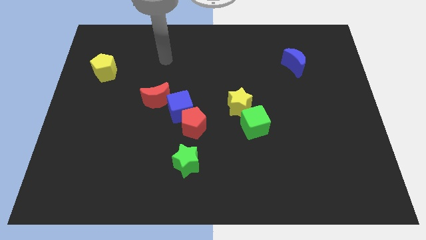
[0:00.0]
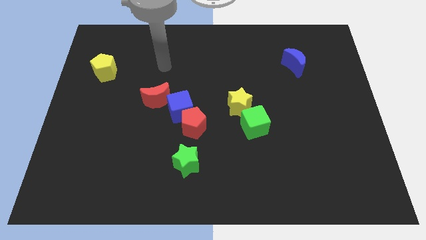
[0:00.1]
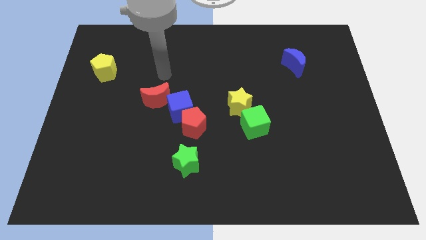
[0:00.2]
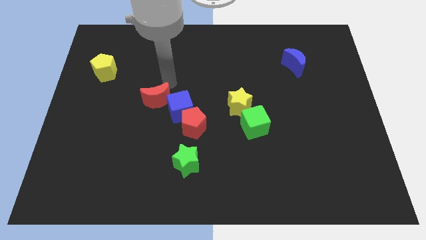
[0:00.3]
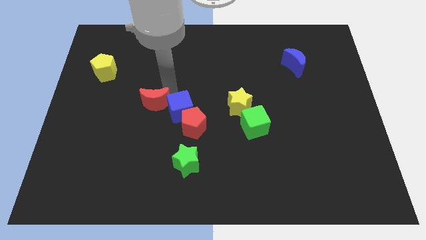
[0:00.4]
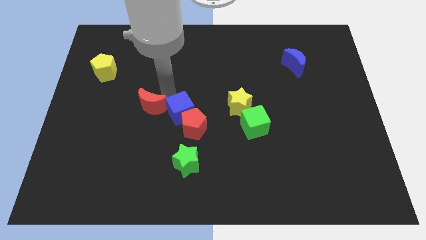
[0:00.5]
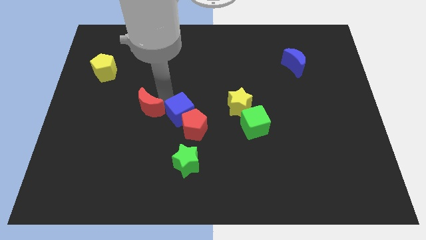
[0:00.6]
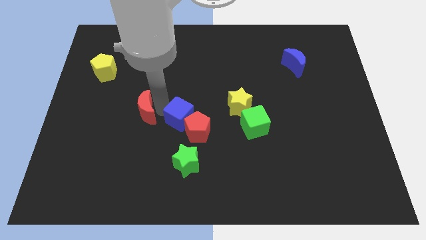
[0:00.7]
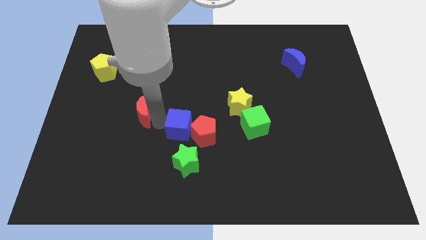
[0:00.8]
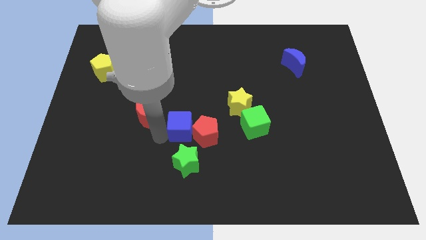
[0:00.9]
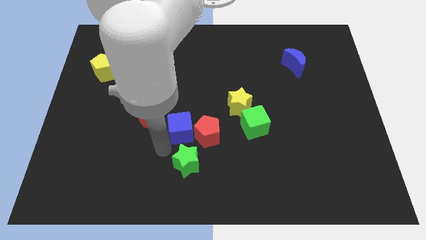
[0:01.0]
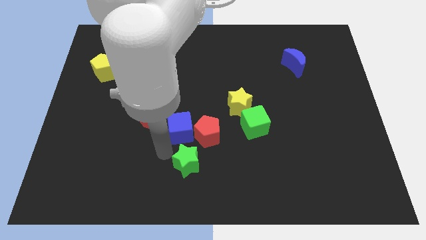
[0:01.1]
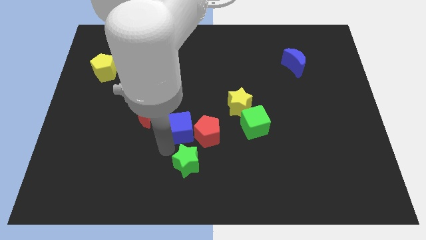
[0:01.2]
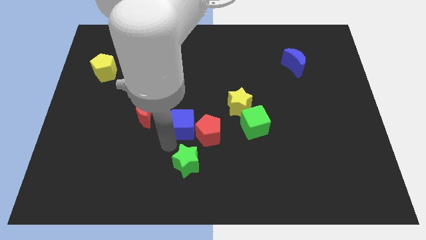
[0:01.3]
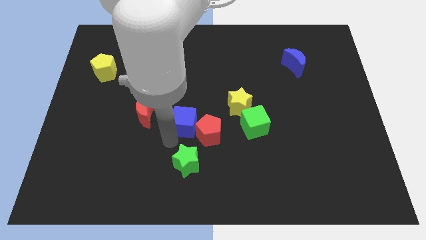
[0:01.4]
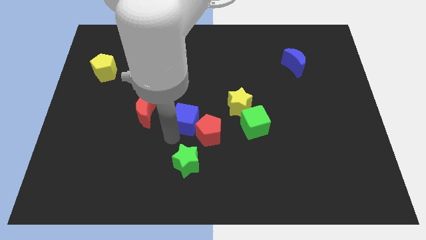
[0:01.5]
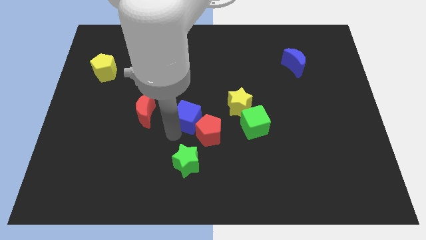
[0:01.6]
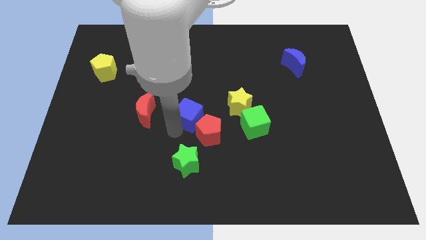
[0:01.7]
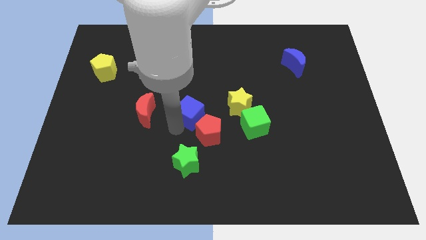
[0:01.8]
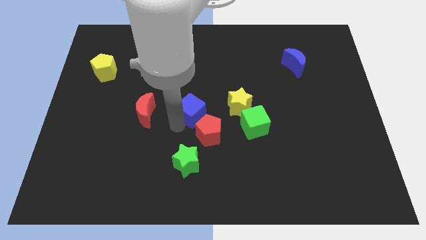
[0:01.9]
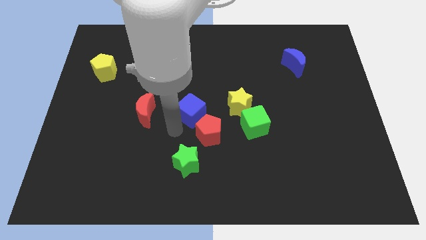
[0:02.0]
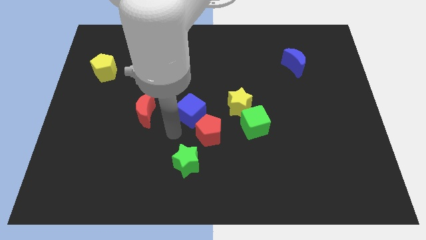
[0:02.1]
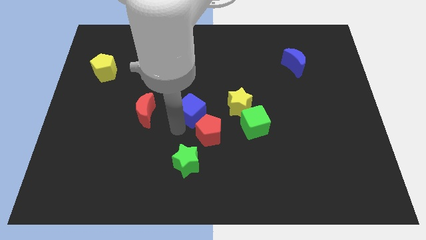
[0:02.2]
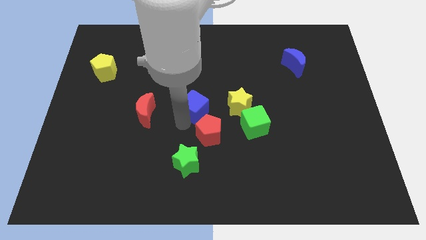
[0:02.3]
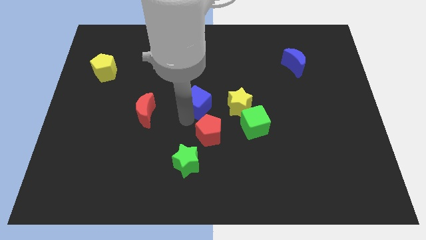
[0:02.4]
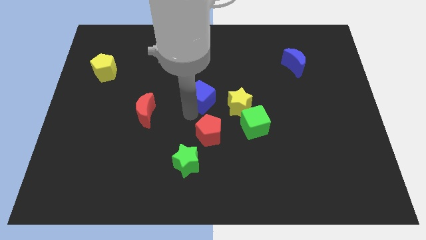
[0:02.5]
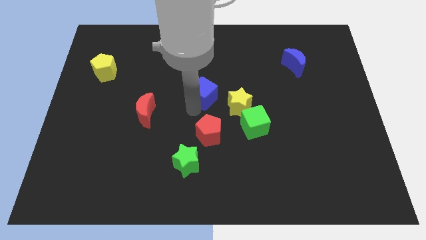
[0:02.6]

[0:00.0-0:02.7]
separate the blue cube from the red pentagon and red moon

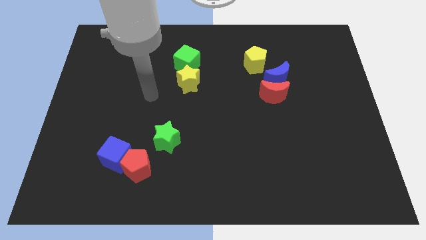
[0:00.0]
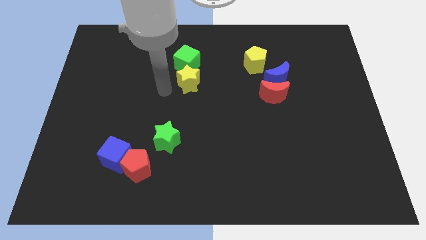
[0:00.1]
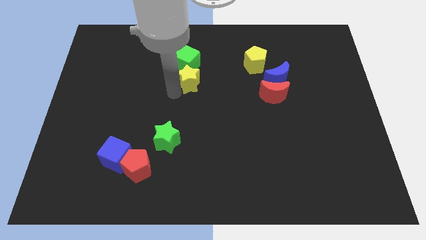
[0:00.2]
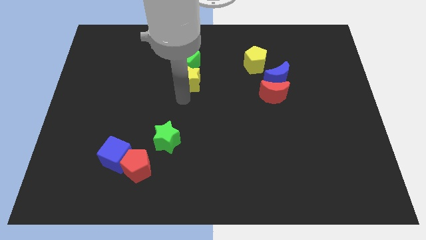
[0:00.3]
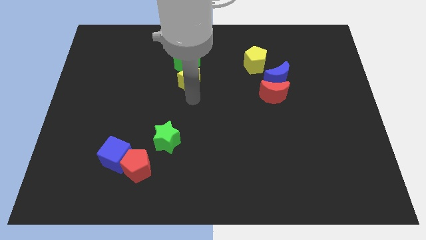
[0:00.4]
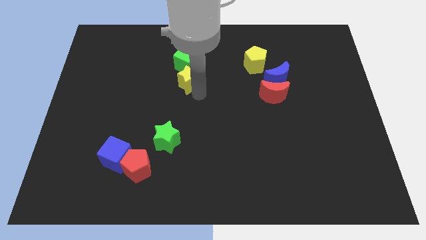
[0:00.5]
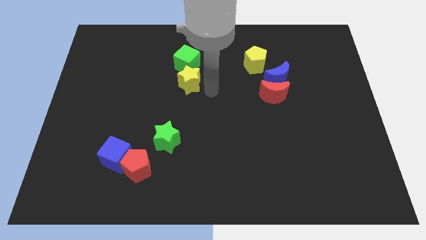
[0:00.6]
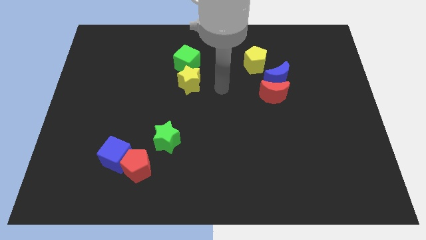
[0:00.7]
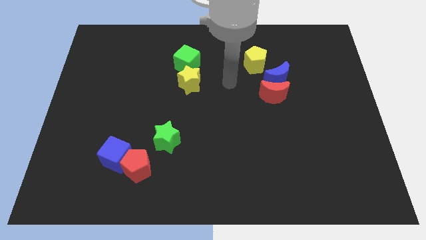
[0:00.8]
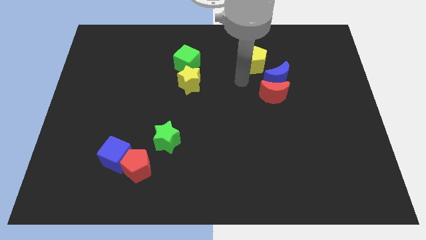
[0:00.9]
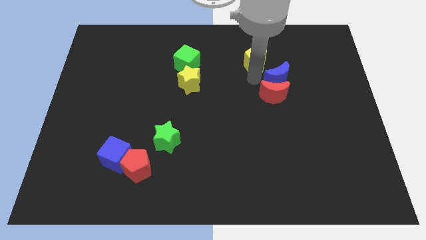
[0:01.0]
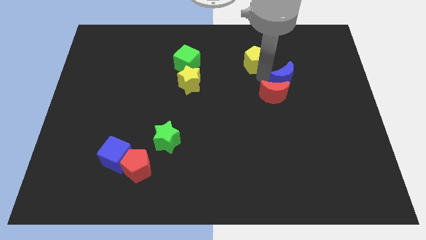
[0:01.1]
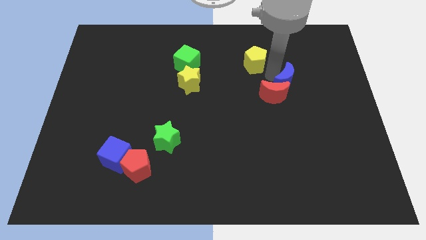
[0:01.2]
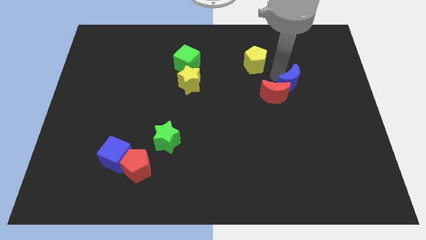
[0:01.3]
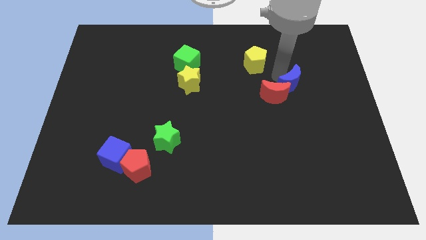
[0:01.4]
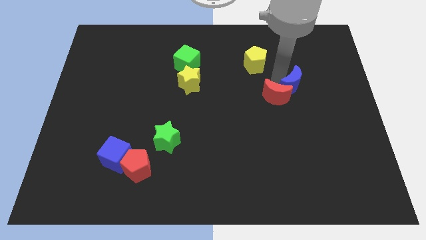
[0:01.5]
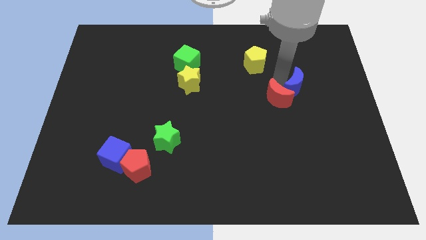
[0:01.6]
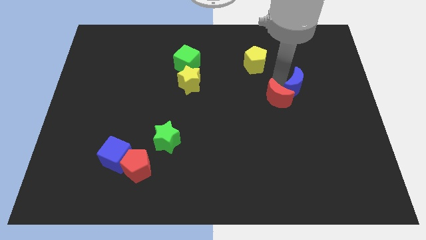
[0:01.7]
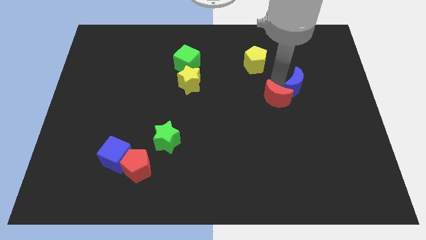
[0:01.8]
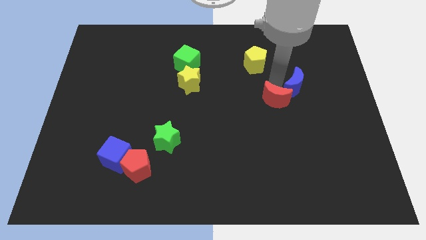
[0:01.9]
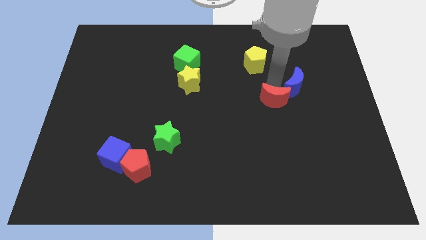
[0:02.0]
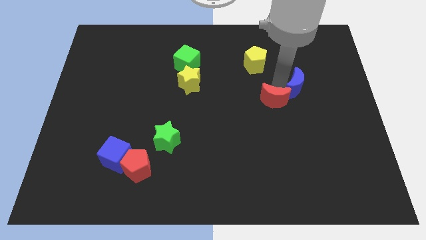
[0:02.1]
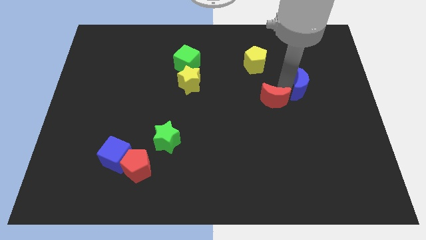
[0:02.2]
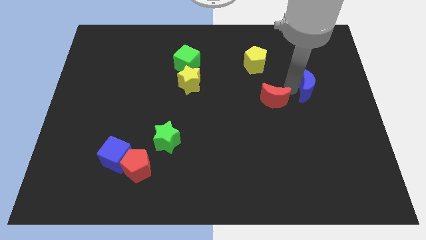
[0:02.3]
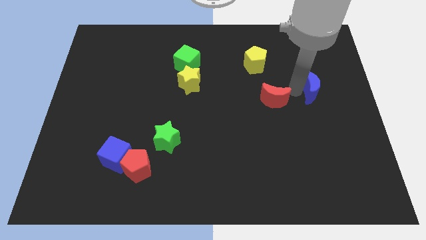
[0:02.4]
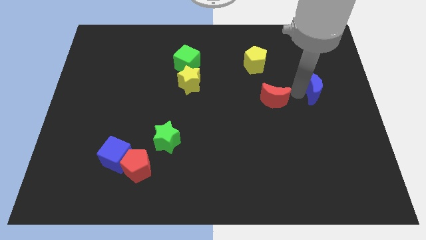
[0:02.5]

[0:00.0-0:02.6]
separate the red moon from the blue moon

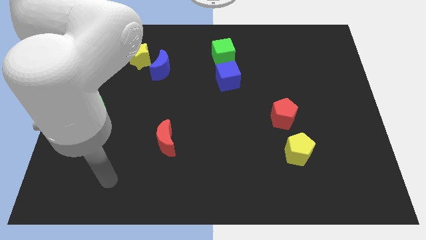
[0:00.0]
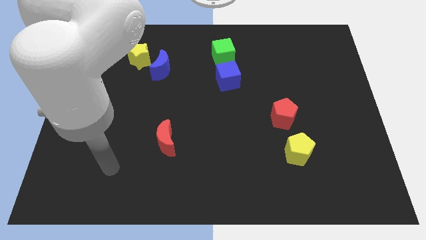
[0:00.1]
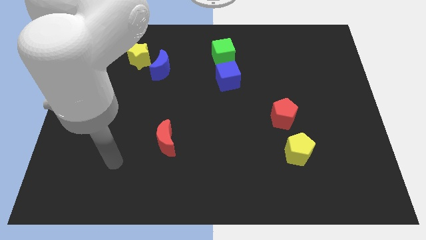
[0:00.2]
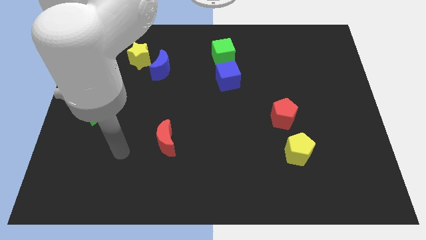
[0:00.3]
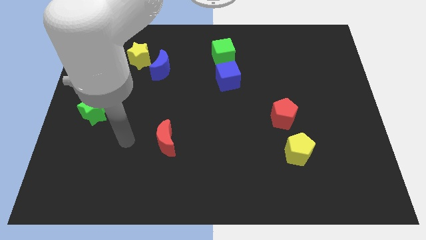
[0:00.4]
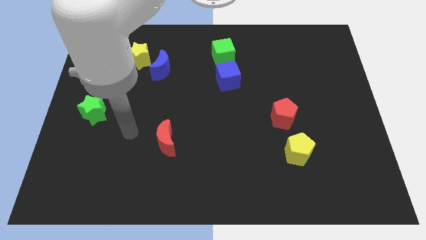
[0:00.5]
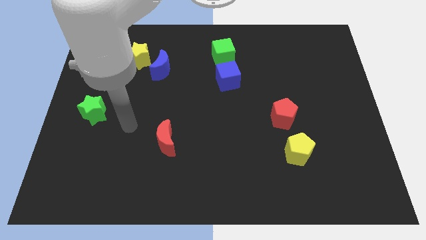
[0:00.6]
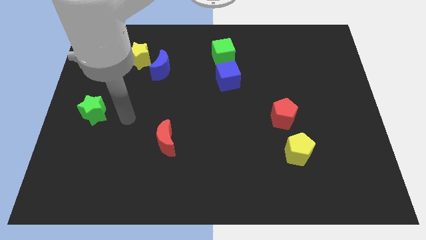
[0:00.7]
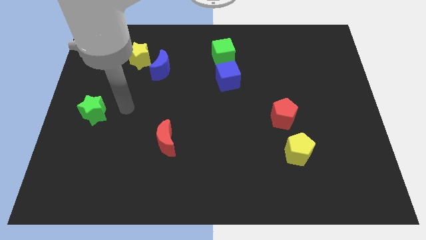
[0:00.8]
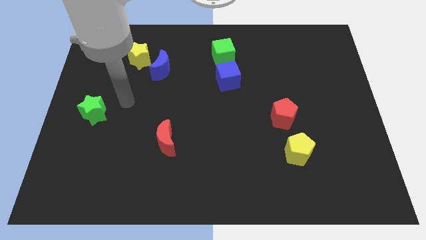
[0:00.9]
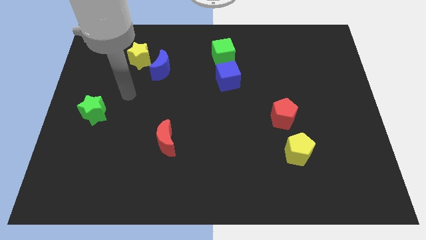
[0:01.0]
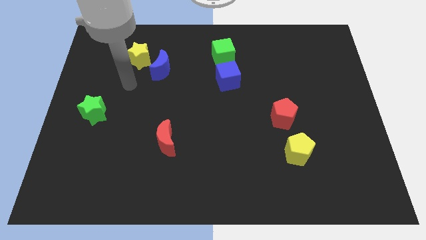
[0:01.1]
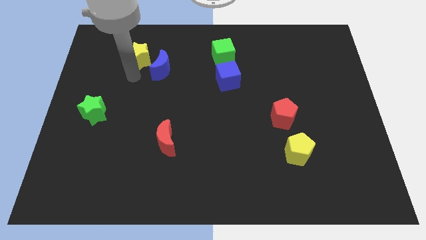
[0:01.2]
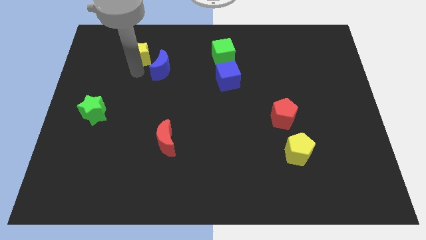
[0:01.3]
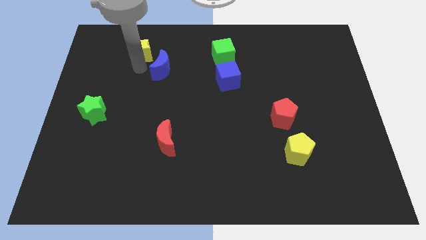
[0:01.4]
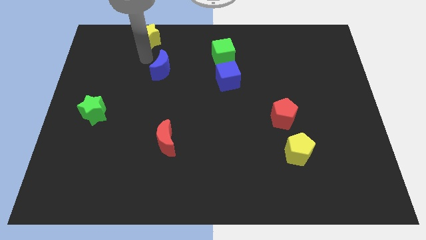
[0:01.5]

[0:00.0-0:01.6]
pull the blue moon apart from the yellow star

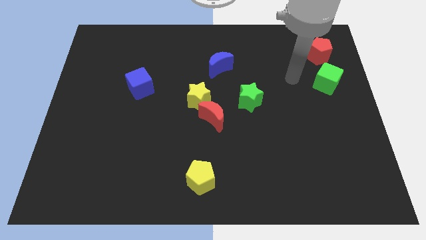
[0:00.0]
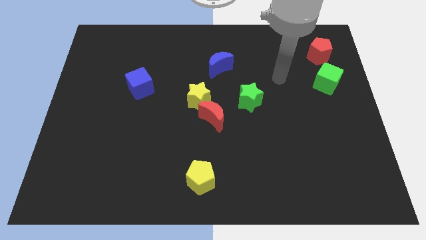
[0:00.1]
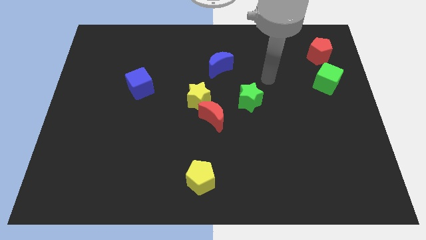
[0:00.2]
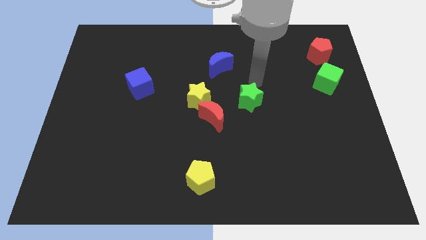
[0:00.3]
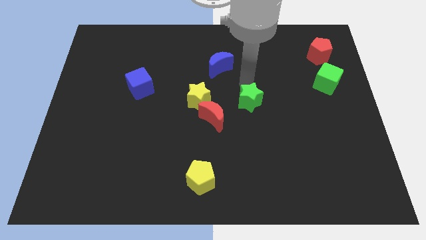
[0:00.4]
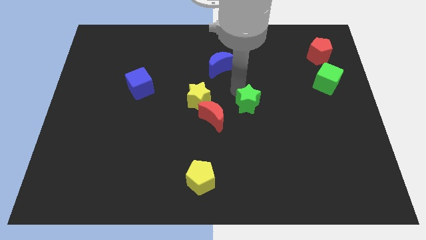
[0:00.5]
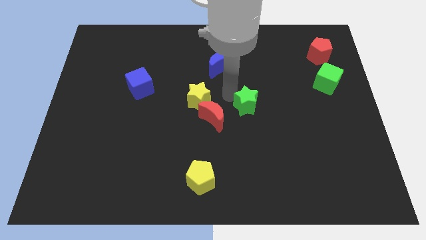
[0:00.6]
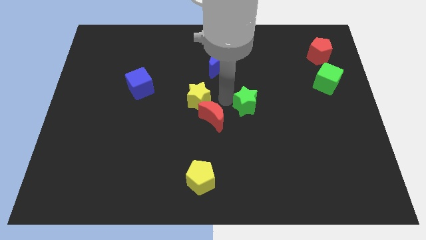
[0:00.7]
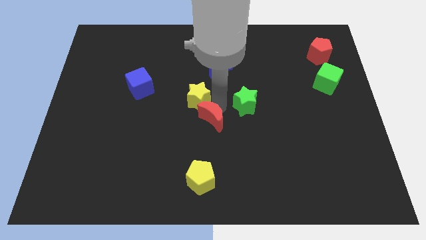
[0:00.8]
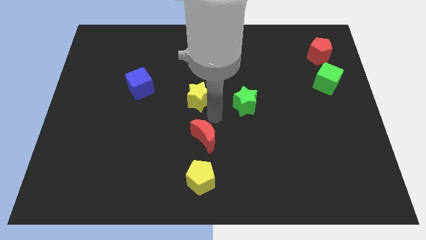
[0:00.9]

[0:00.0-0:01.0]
move the yellow star away from the red moon

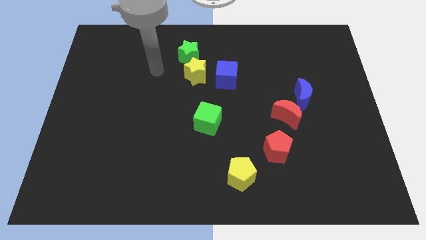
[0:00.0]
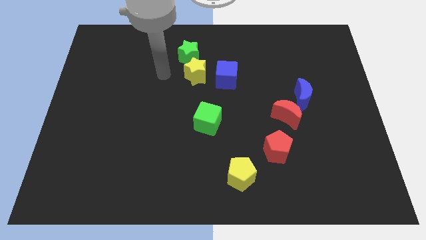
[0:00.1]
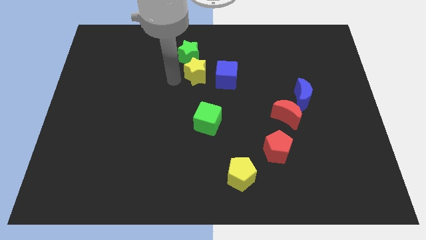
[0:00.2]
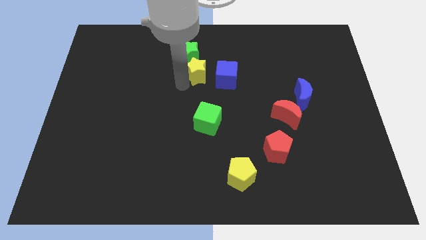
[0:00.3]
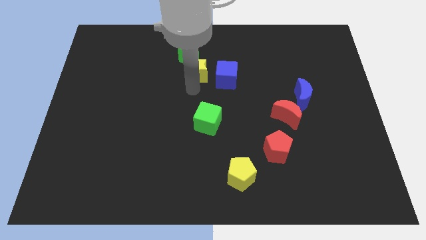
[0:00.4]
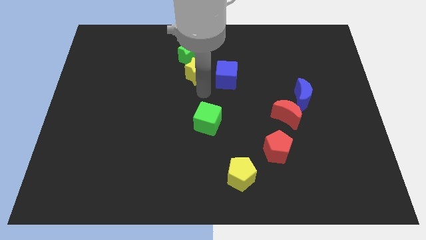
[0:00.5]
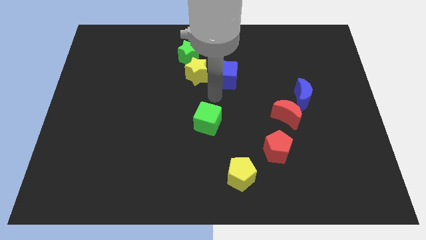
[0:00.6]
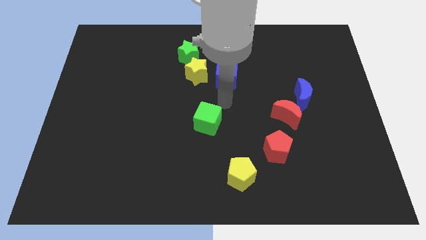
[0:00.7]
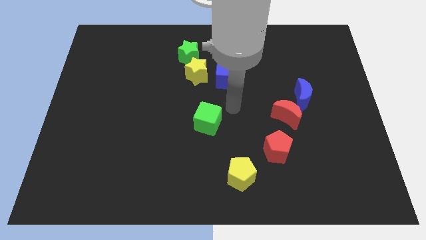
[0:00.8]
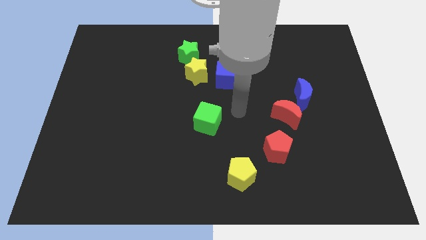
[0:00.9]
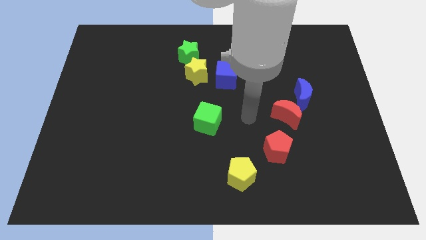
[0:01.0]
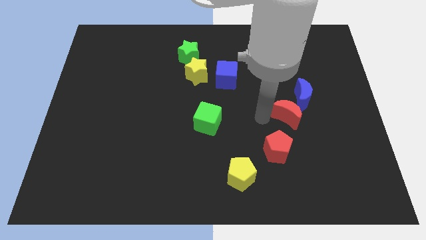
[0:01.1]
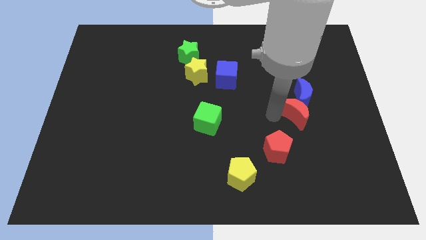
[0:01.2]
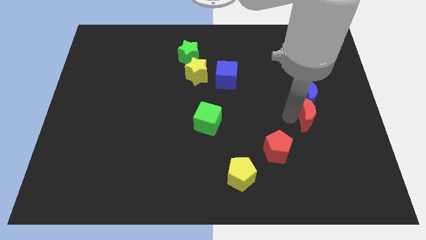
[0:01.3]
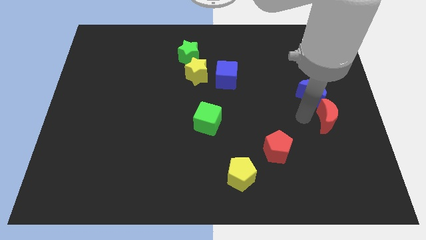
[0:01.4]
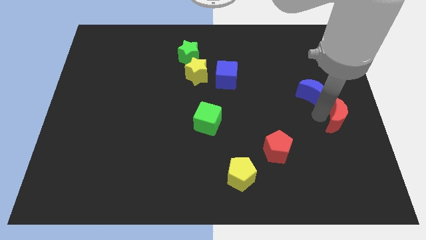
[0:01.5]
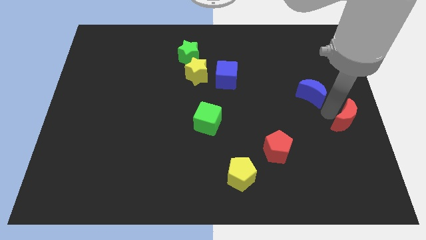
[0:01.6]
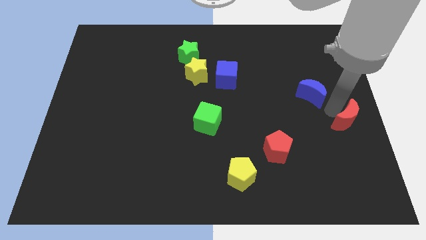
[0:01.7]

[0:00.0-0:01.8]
separate the blue moon from the red moon
